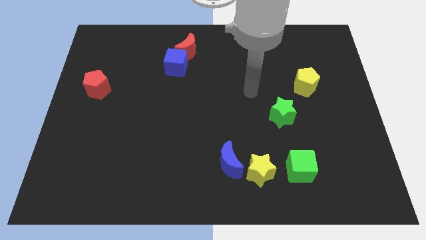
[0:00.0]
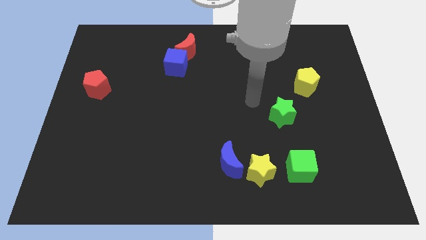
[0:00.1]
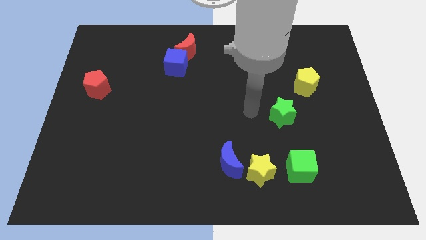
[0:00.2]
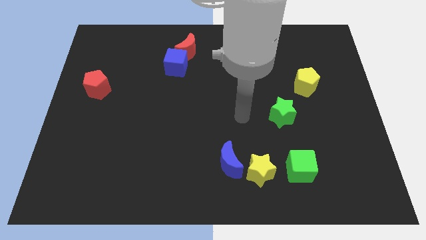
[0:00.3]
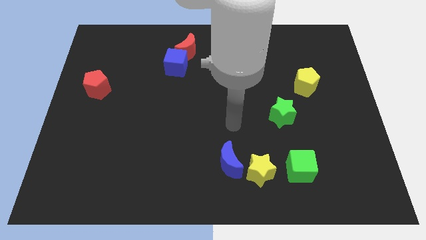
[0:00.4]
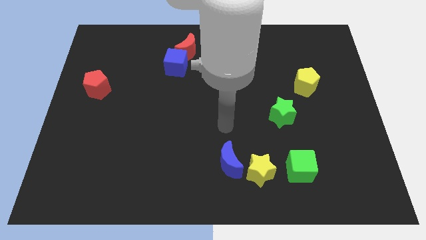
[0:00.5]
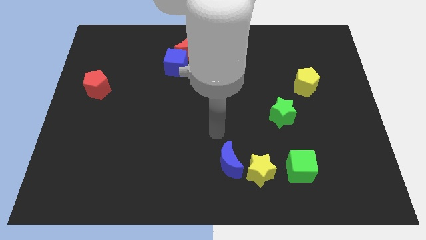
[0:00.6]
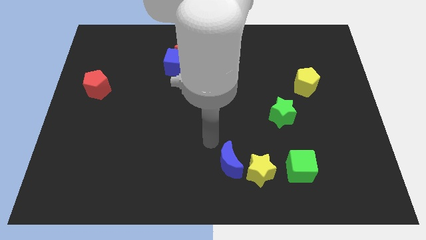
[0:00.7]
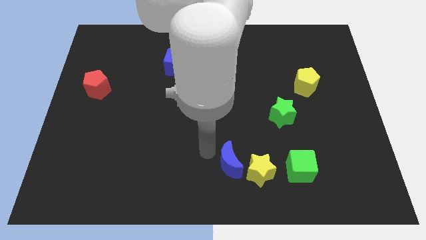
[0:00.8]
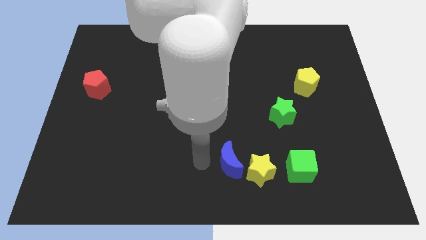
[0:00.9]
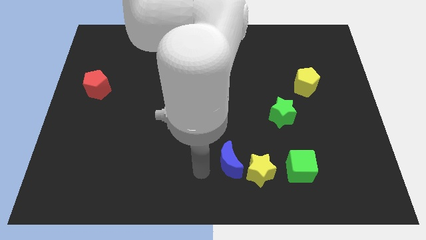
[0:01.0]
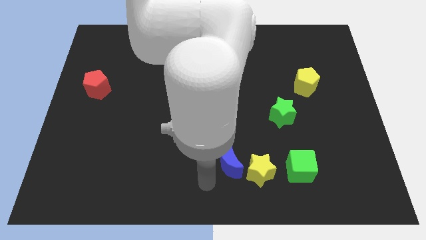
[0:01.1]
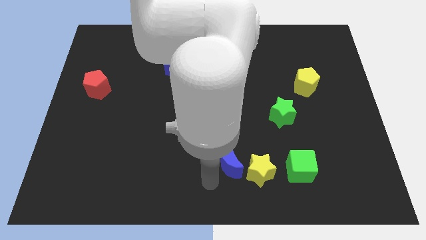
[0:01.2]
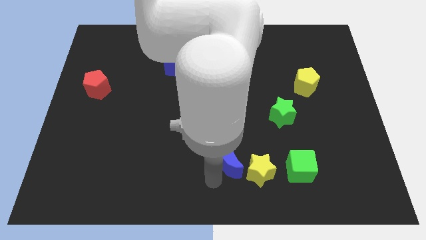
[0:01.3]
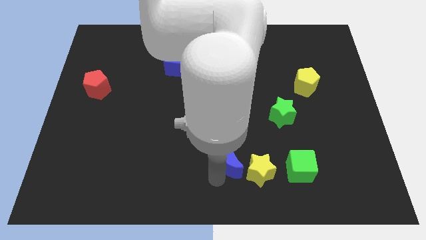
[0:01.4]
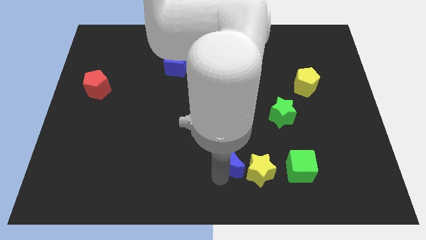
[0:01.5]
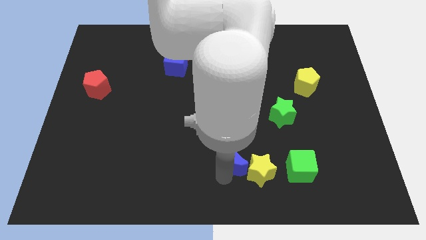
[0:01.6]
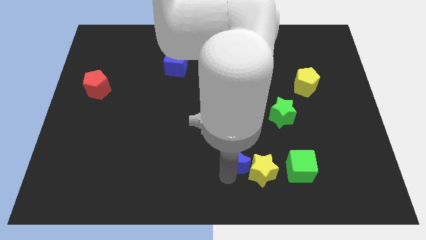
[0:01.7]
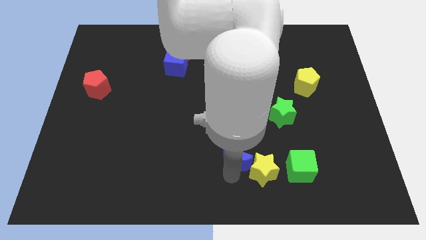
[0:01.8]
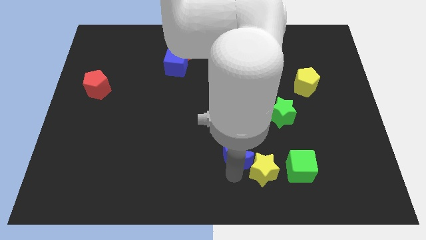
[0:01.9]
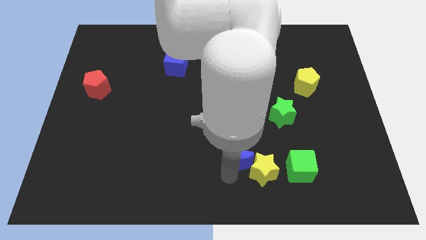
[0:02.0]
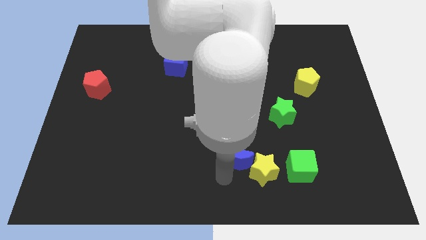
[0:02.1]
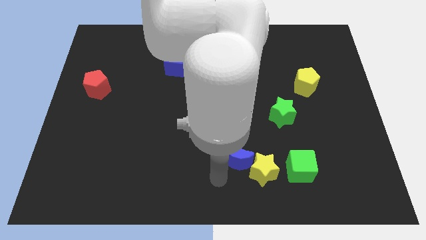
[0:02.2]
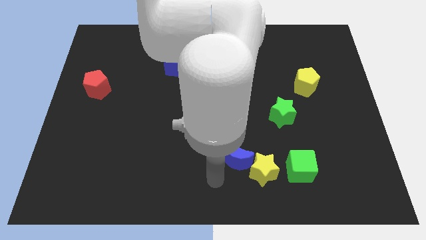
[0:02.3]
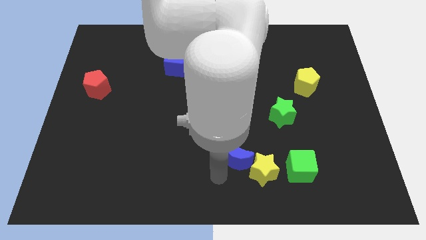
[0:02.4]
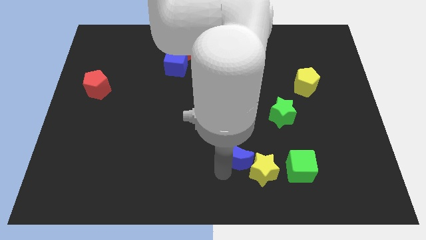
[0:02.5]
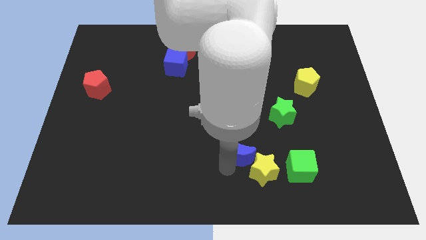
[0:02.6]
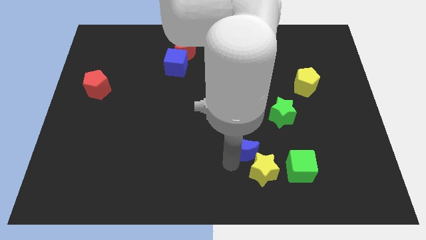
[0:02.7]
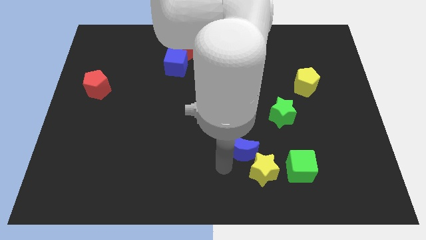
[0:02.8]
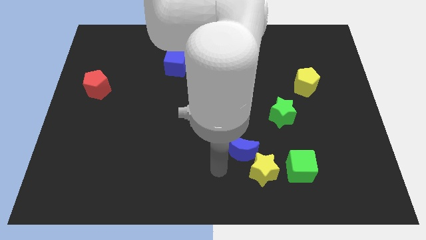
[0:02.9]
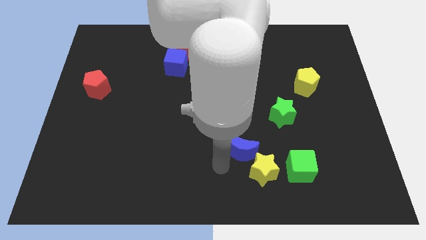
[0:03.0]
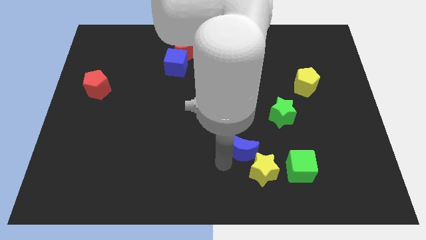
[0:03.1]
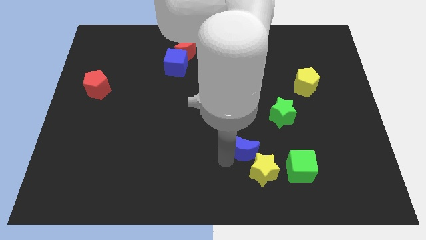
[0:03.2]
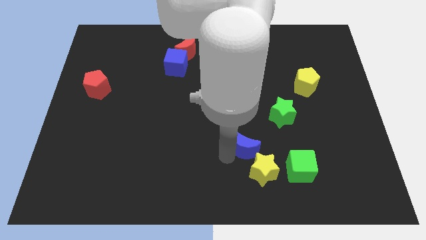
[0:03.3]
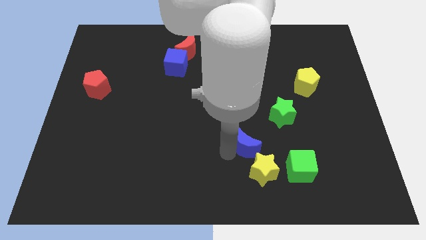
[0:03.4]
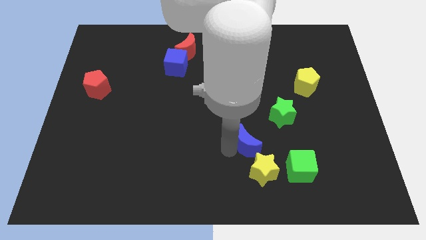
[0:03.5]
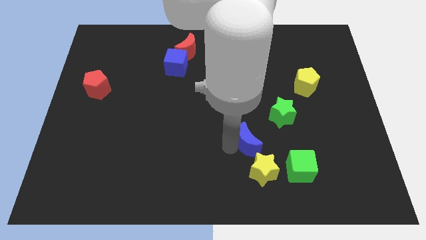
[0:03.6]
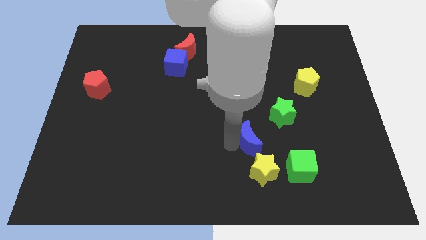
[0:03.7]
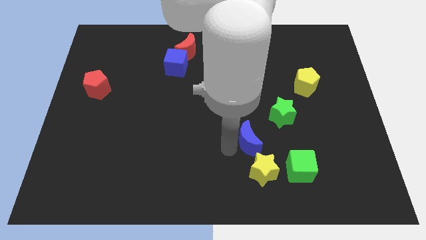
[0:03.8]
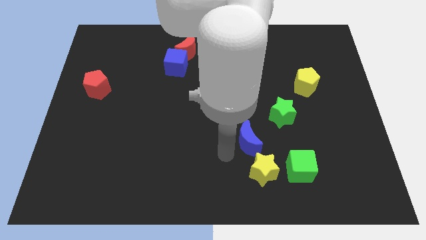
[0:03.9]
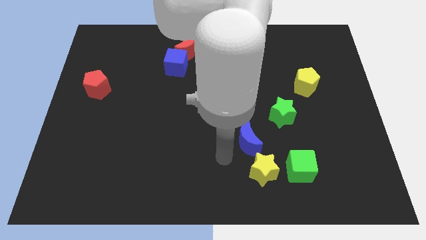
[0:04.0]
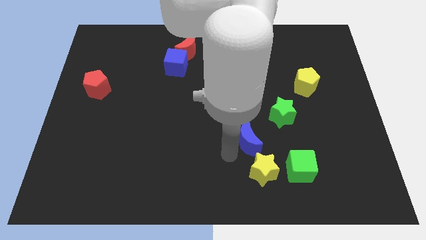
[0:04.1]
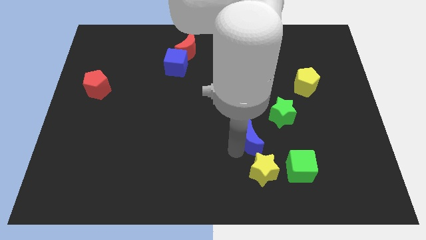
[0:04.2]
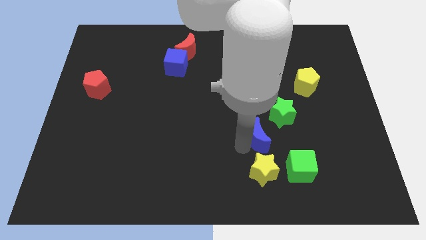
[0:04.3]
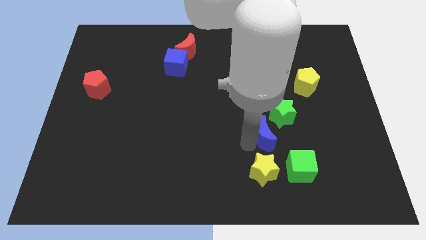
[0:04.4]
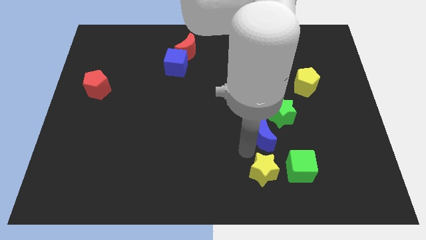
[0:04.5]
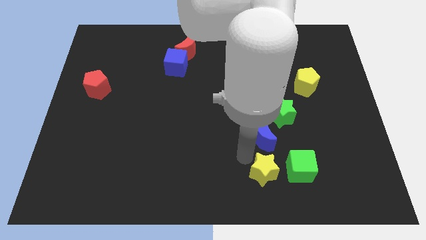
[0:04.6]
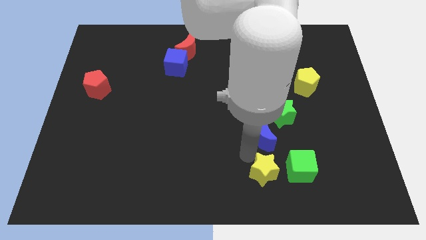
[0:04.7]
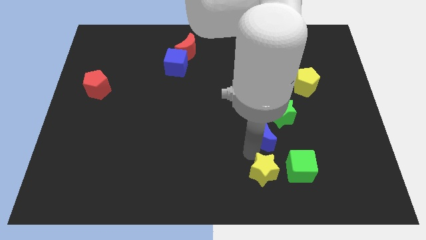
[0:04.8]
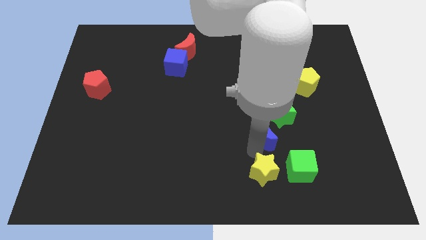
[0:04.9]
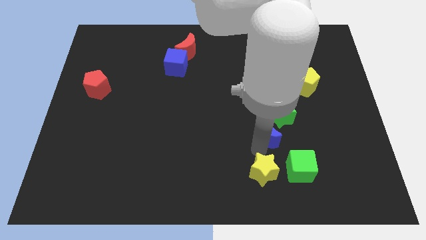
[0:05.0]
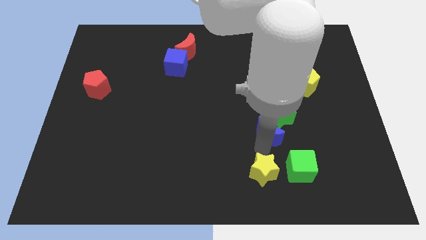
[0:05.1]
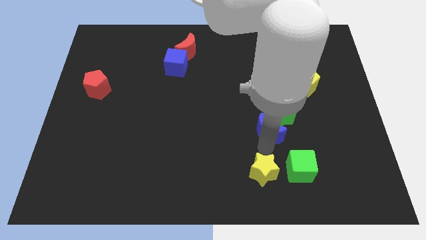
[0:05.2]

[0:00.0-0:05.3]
slide the blue moon next to the green star
